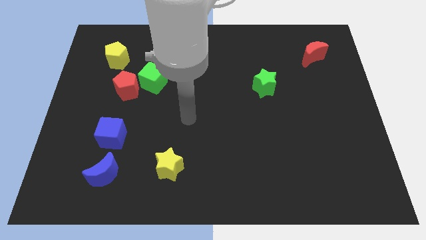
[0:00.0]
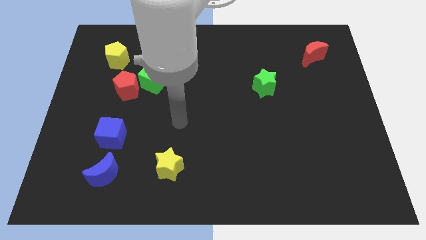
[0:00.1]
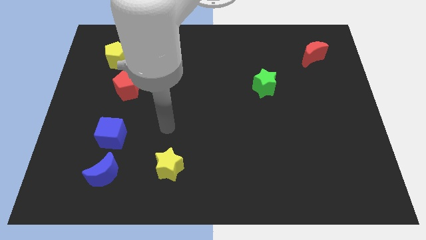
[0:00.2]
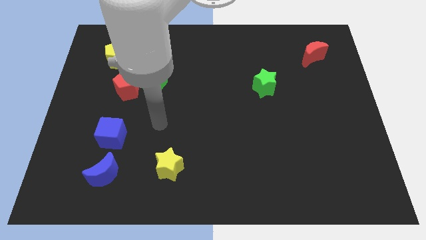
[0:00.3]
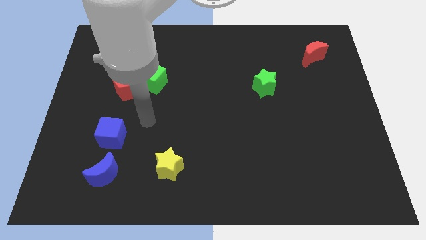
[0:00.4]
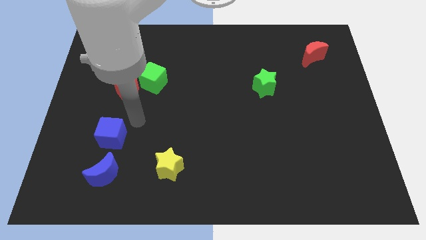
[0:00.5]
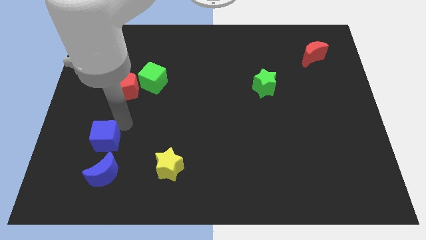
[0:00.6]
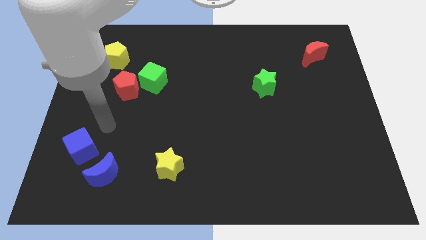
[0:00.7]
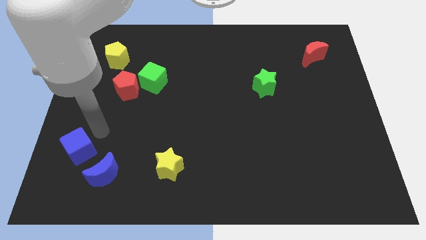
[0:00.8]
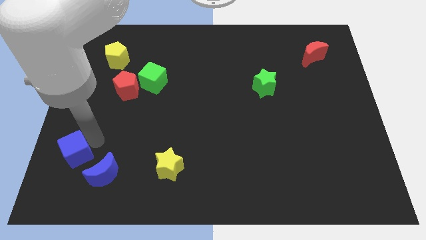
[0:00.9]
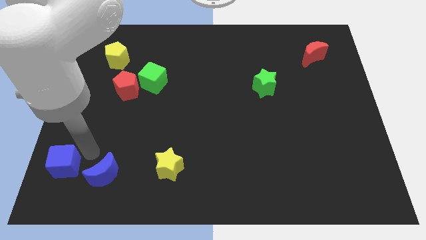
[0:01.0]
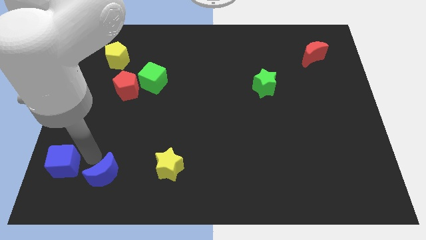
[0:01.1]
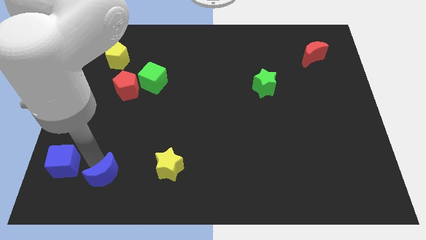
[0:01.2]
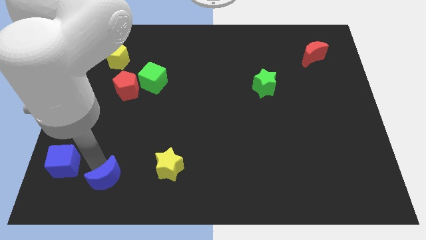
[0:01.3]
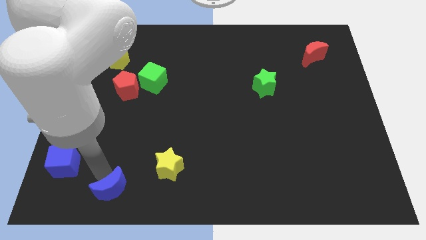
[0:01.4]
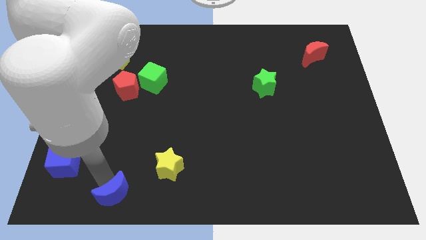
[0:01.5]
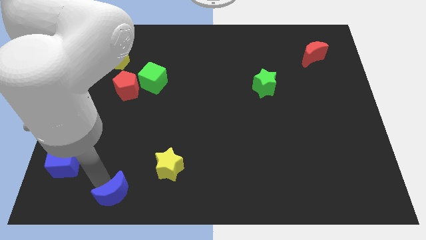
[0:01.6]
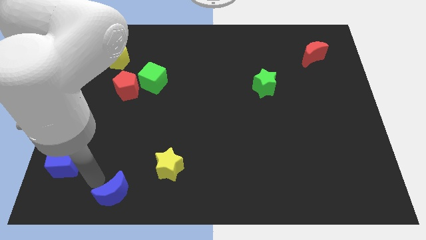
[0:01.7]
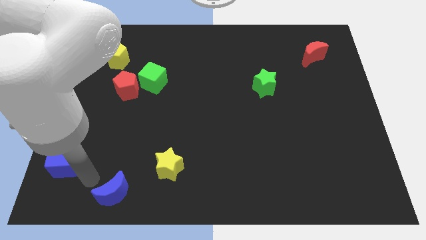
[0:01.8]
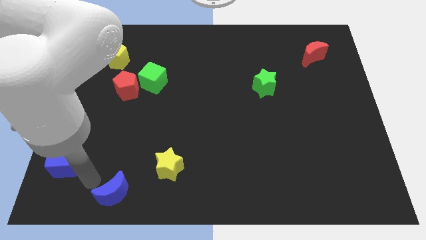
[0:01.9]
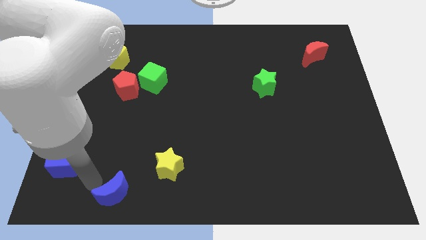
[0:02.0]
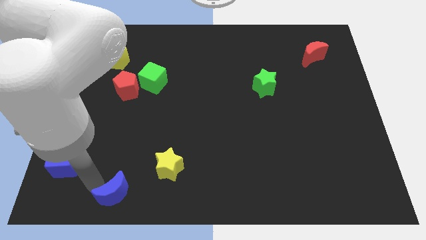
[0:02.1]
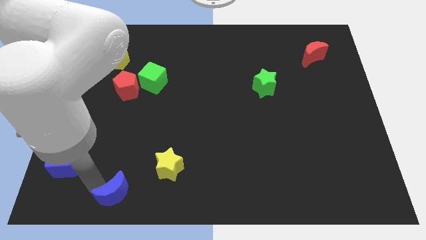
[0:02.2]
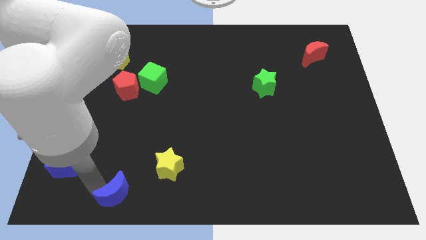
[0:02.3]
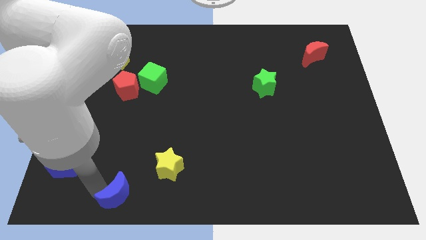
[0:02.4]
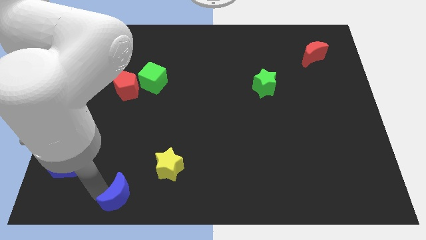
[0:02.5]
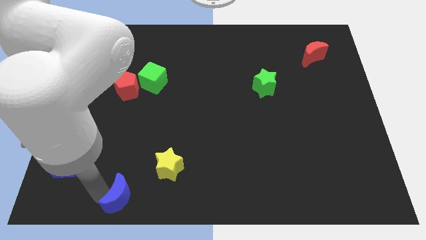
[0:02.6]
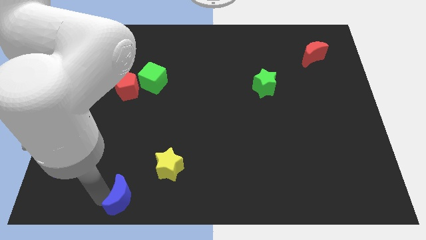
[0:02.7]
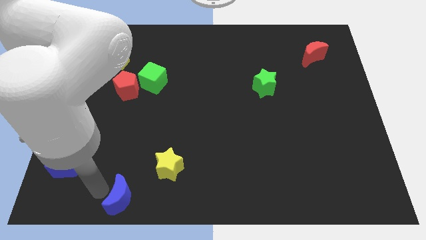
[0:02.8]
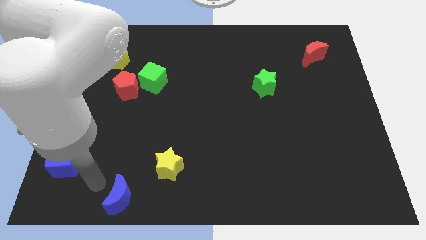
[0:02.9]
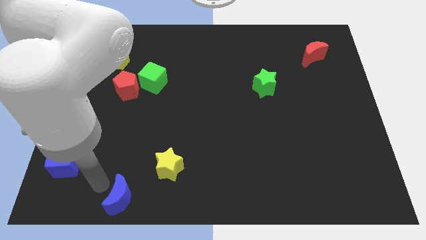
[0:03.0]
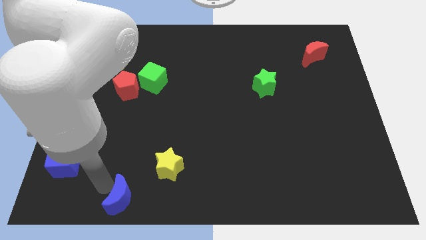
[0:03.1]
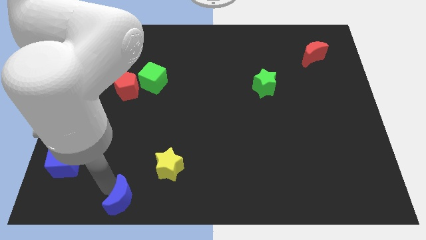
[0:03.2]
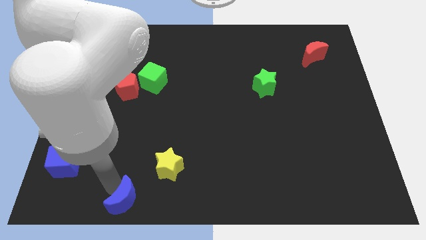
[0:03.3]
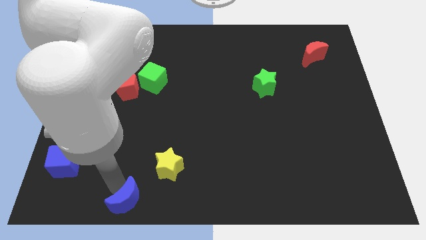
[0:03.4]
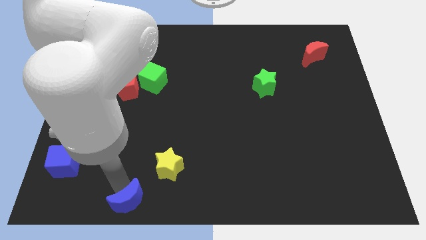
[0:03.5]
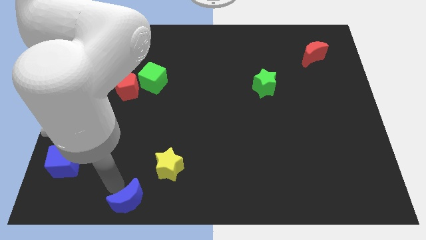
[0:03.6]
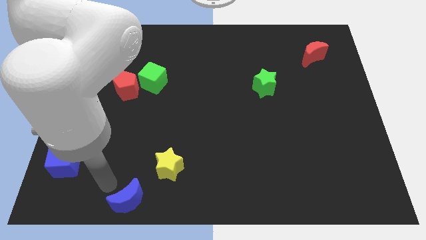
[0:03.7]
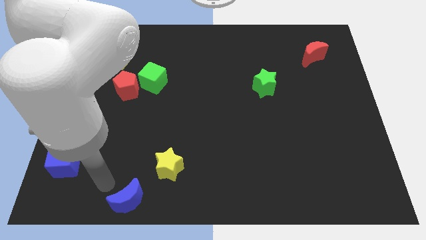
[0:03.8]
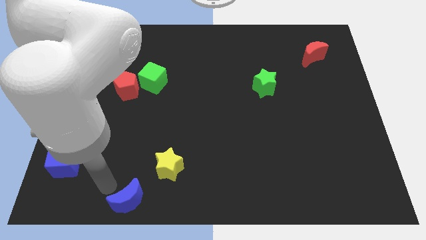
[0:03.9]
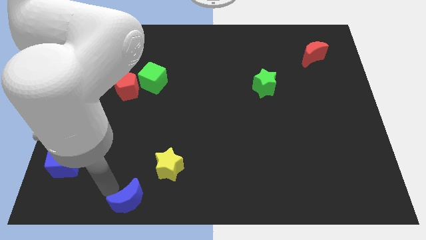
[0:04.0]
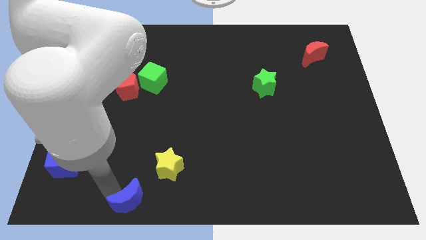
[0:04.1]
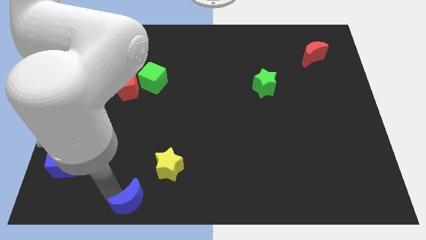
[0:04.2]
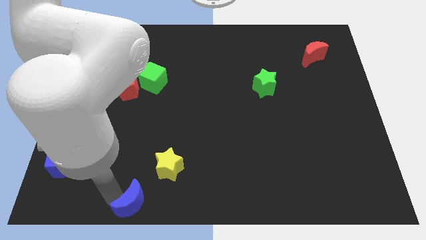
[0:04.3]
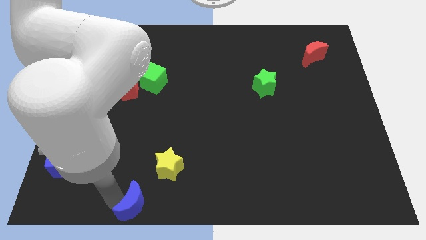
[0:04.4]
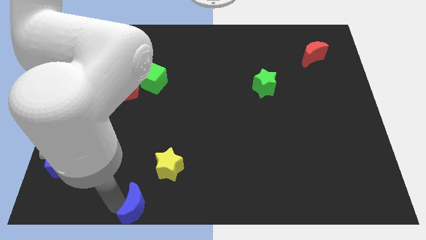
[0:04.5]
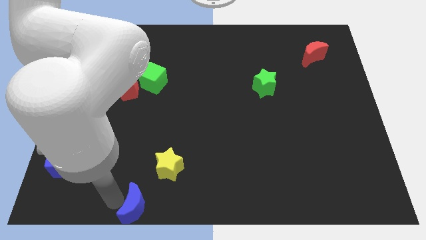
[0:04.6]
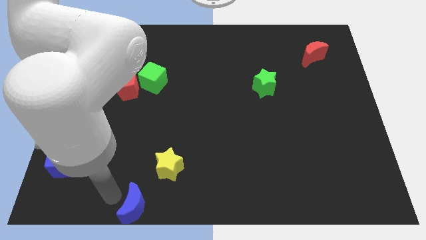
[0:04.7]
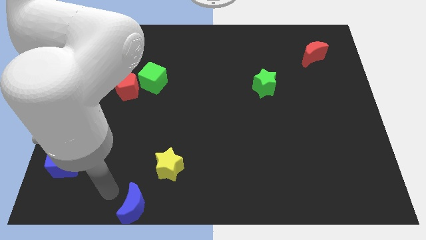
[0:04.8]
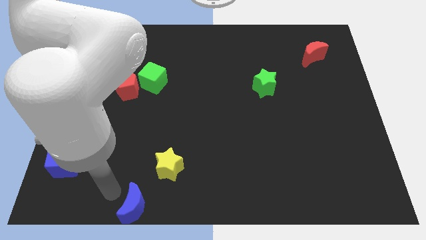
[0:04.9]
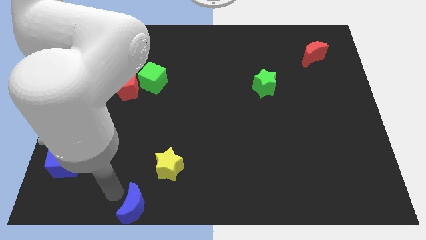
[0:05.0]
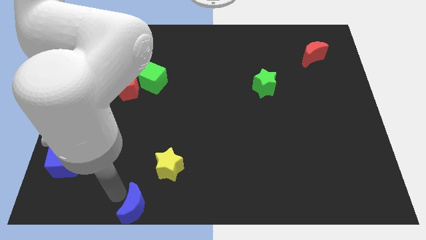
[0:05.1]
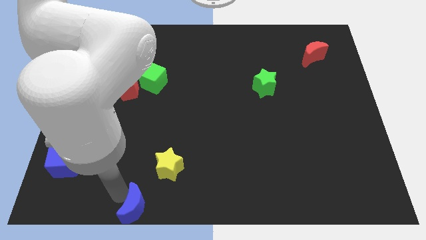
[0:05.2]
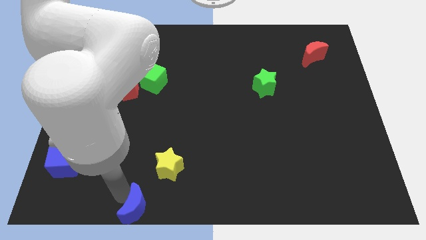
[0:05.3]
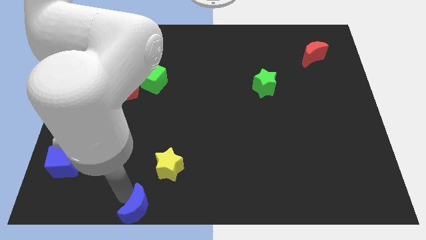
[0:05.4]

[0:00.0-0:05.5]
move the blue moon to the bottom side
